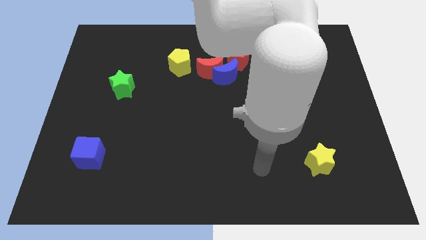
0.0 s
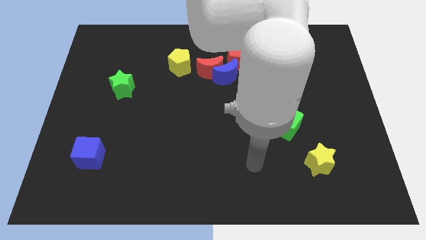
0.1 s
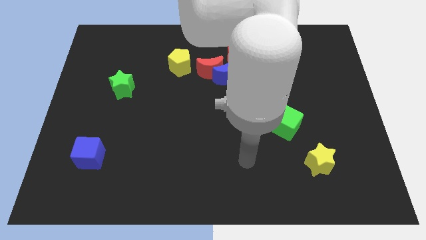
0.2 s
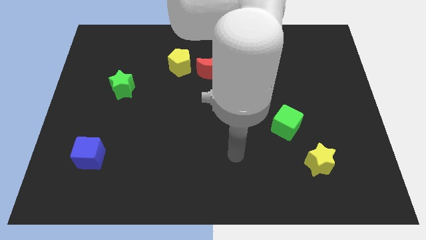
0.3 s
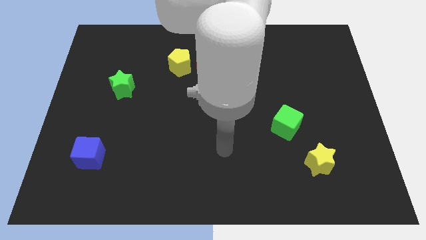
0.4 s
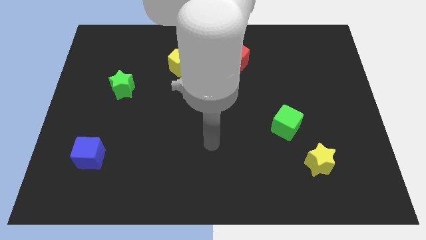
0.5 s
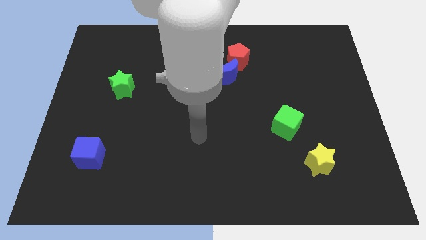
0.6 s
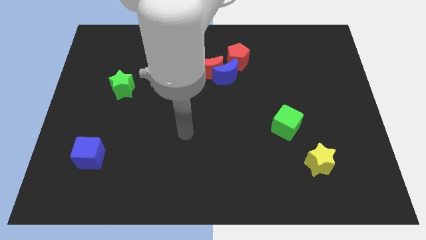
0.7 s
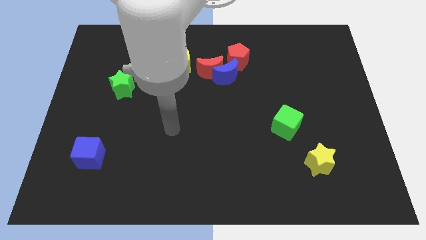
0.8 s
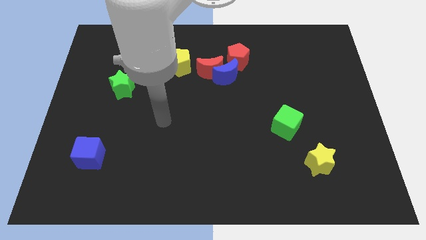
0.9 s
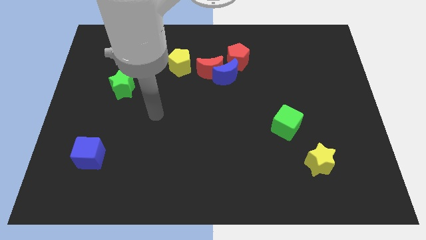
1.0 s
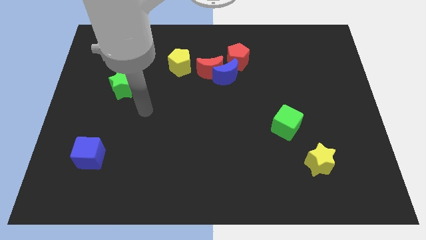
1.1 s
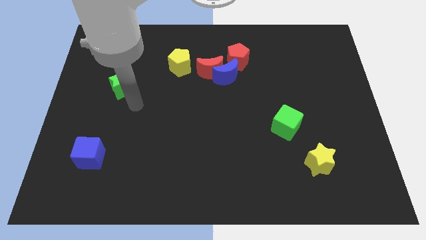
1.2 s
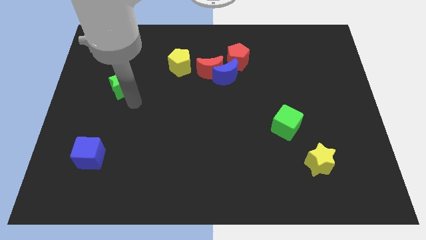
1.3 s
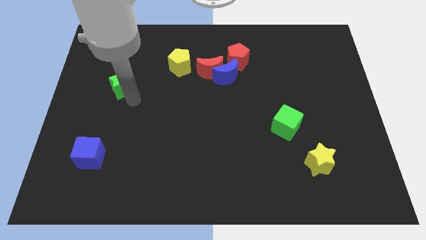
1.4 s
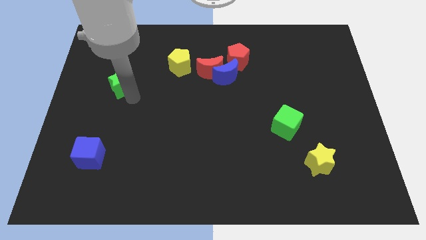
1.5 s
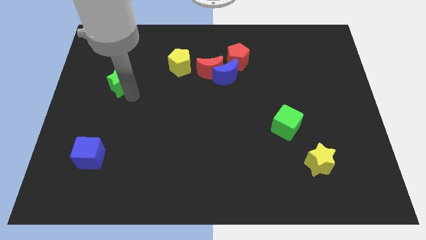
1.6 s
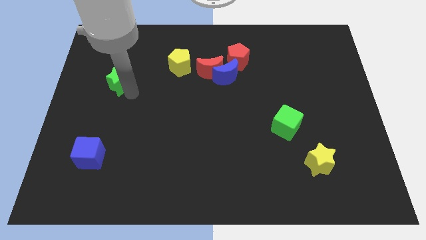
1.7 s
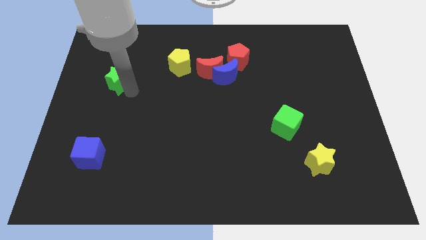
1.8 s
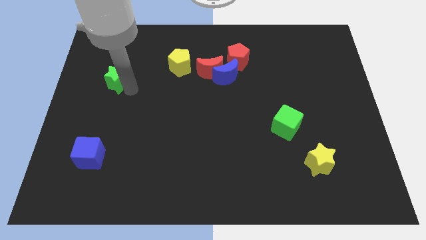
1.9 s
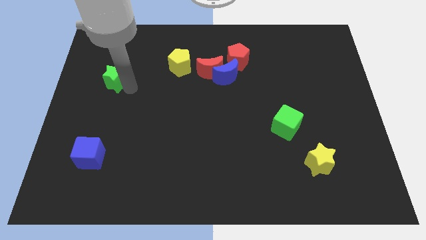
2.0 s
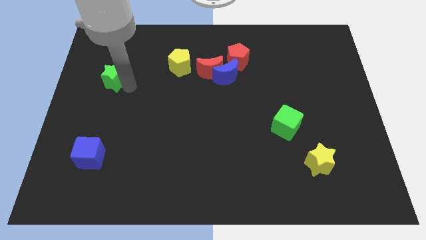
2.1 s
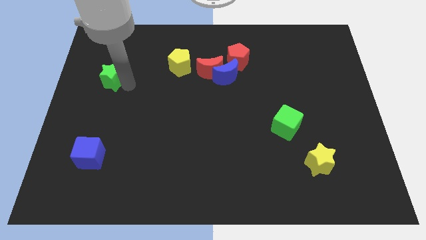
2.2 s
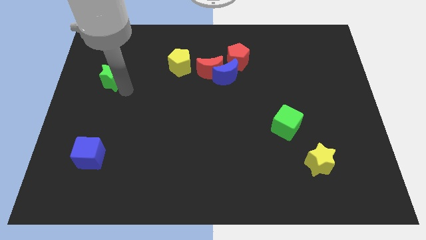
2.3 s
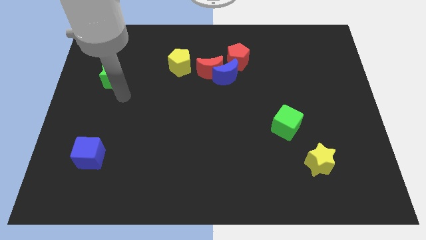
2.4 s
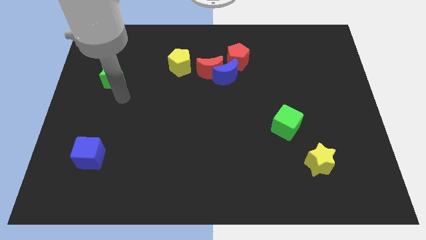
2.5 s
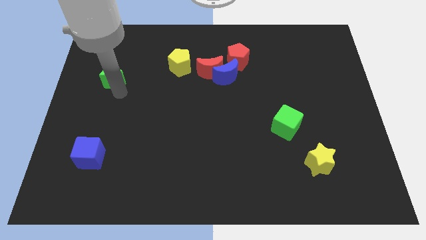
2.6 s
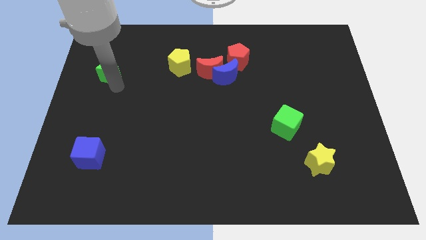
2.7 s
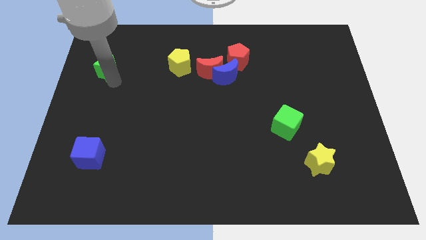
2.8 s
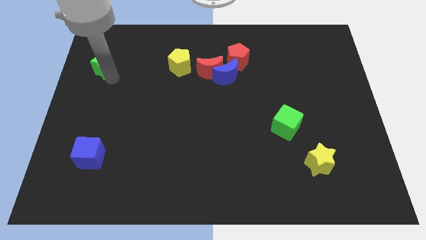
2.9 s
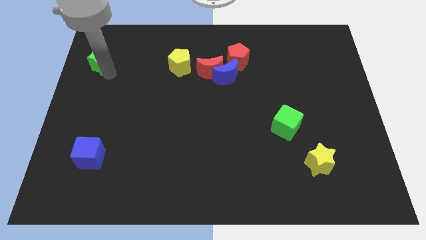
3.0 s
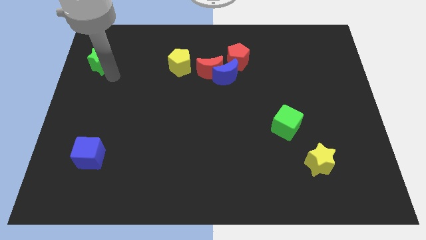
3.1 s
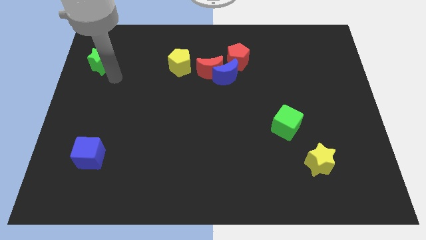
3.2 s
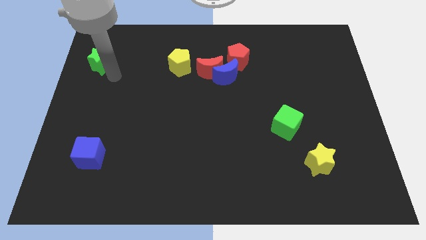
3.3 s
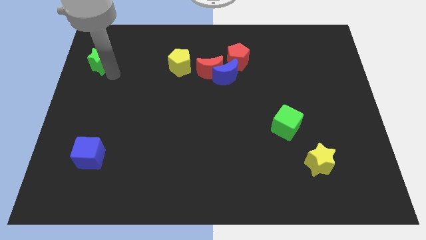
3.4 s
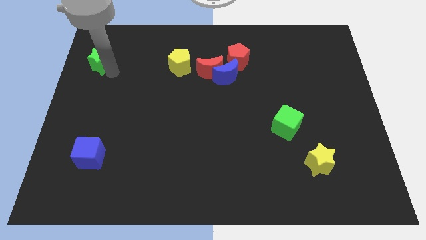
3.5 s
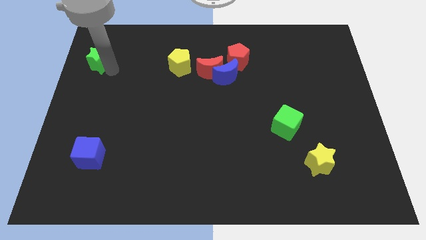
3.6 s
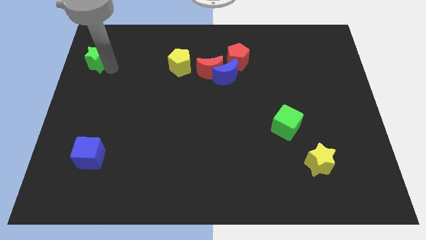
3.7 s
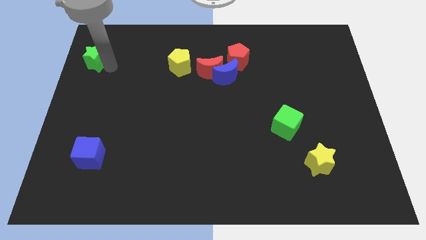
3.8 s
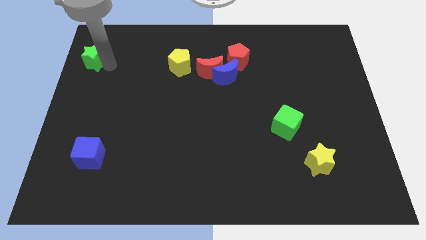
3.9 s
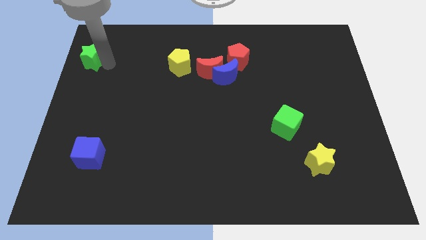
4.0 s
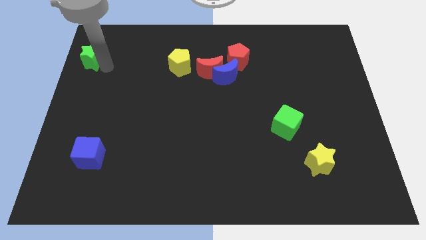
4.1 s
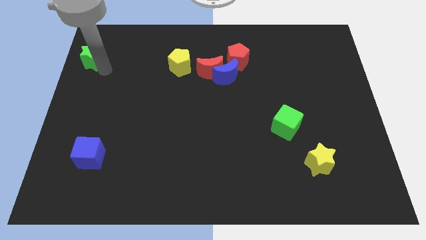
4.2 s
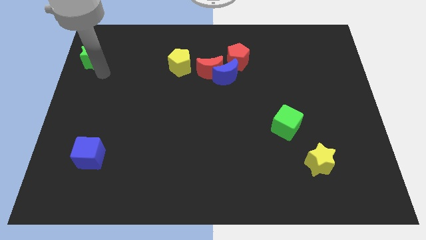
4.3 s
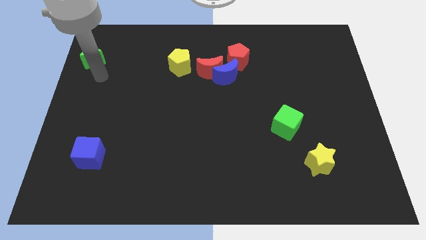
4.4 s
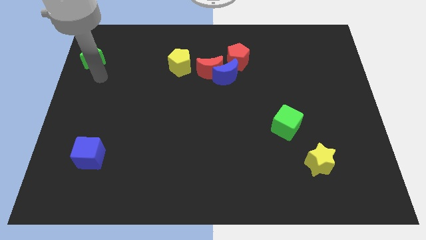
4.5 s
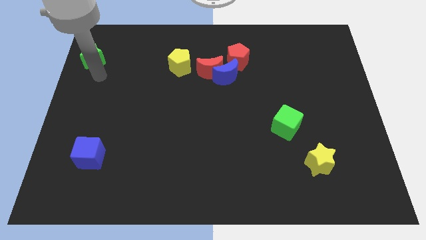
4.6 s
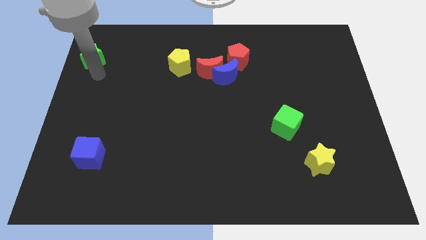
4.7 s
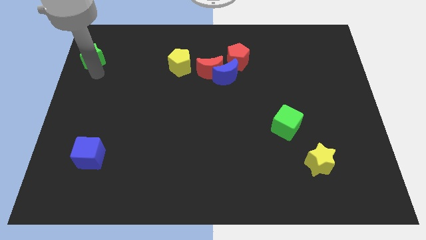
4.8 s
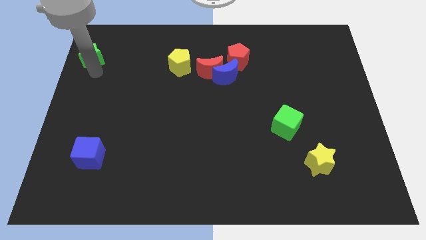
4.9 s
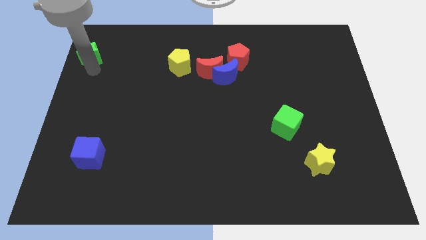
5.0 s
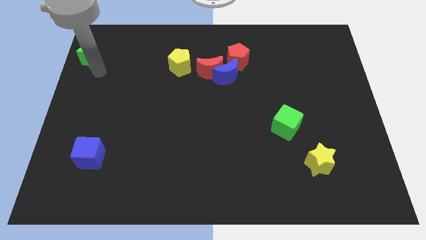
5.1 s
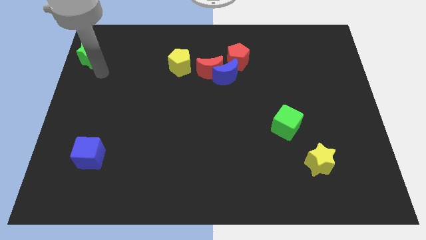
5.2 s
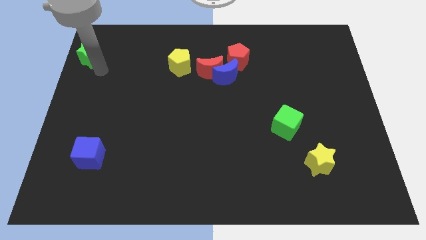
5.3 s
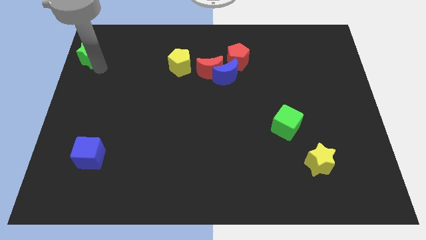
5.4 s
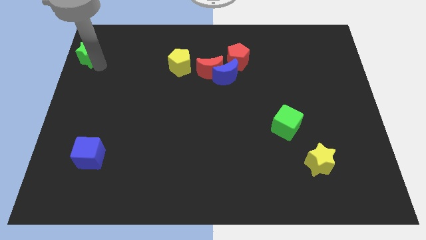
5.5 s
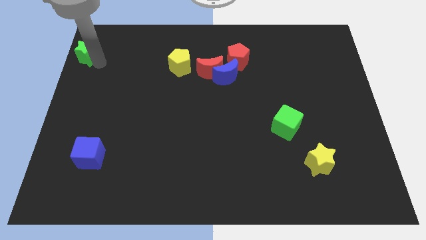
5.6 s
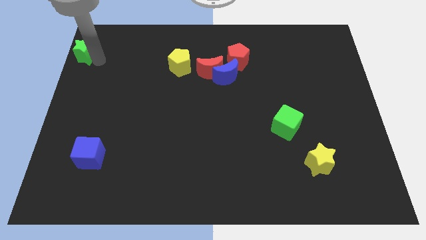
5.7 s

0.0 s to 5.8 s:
slide the green star to the top left of the board

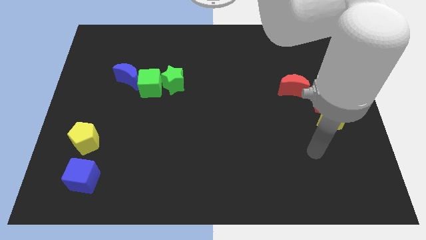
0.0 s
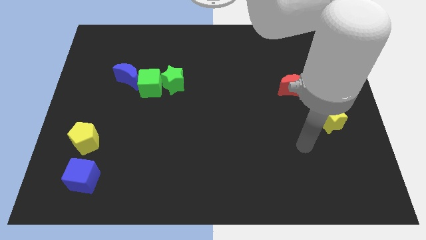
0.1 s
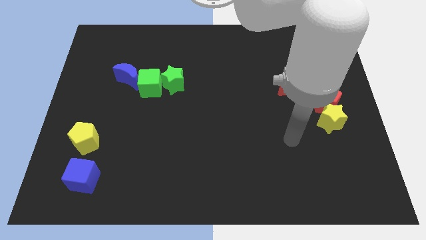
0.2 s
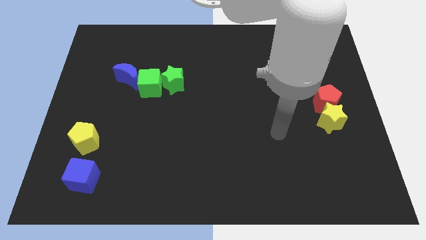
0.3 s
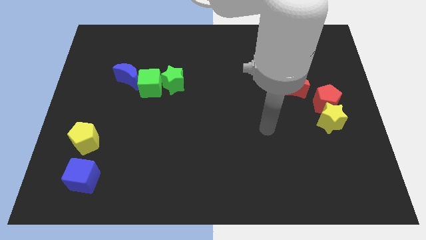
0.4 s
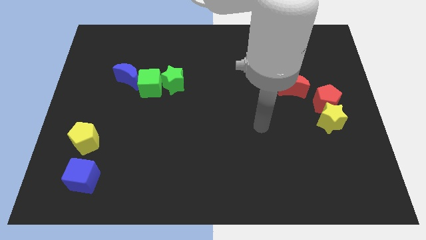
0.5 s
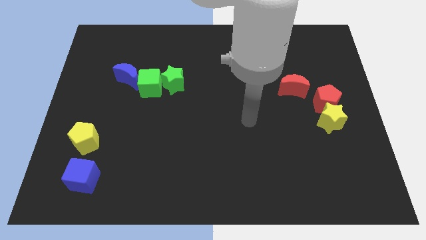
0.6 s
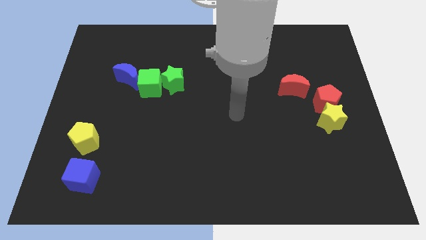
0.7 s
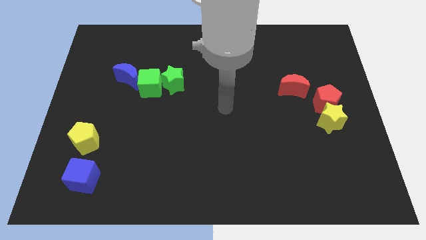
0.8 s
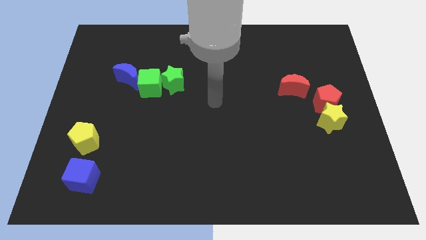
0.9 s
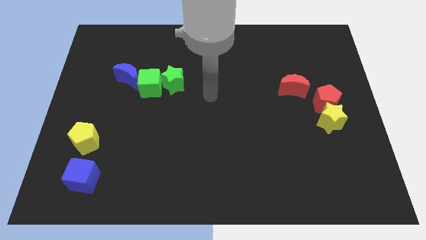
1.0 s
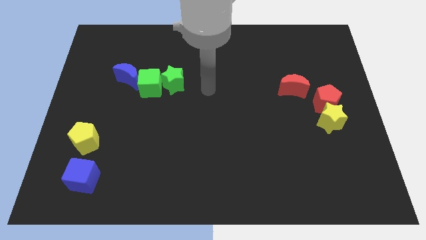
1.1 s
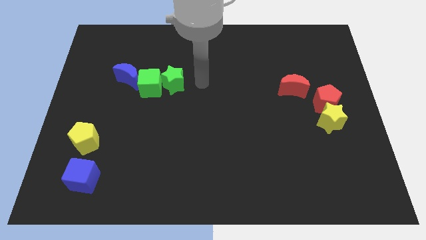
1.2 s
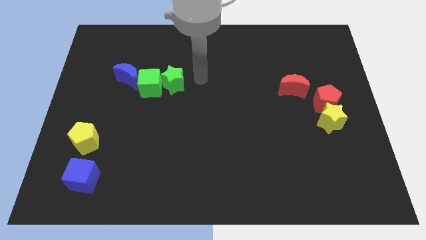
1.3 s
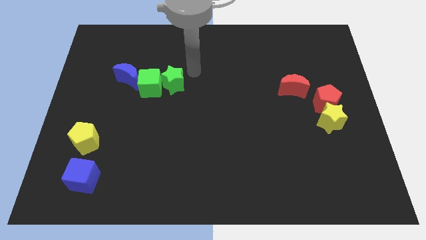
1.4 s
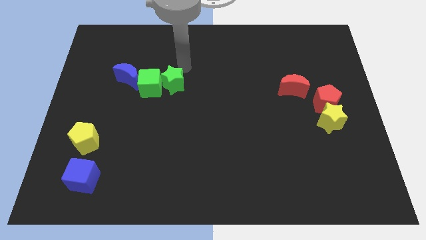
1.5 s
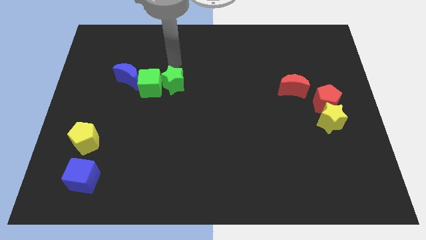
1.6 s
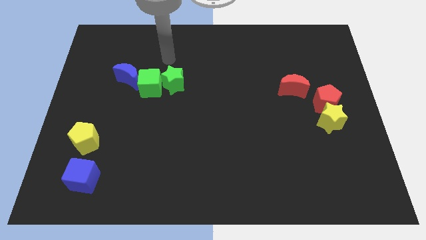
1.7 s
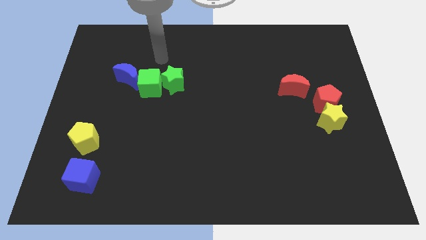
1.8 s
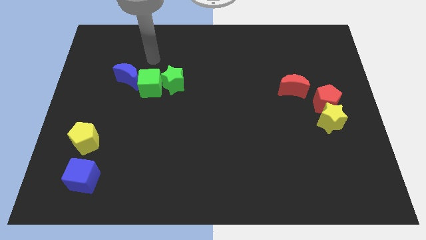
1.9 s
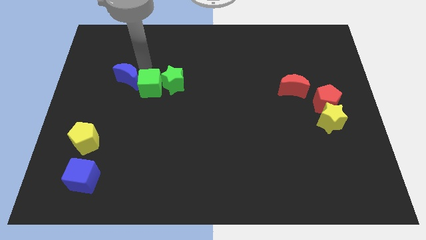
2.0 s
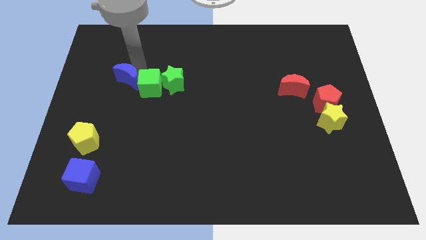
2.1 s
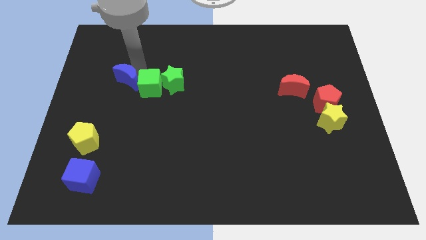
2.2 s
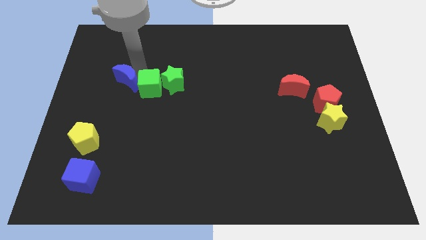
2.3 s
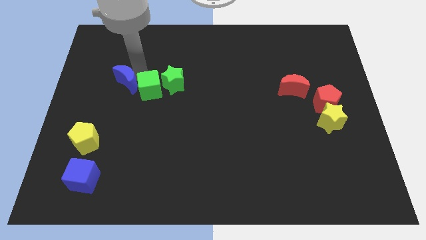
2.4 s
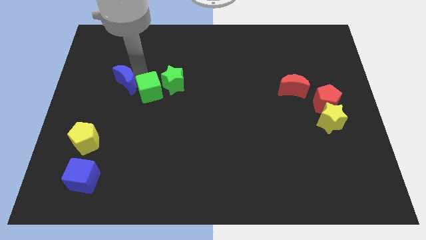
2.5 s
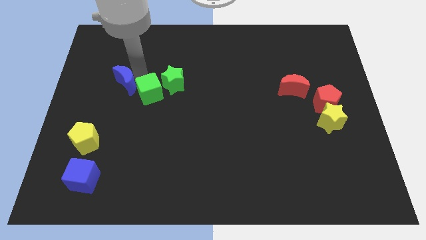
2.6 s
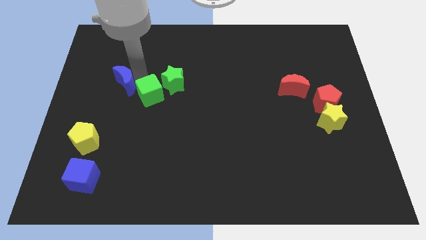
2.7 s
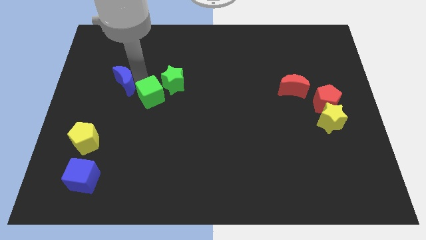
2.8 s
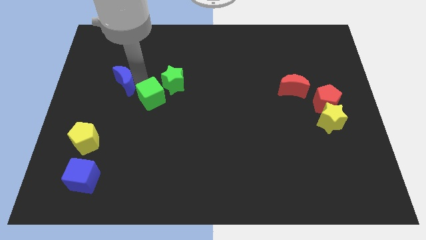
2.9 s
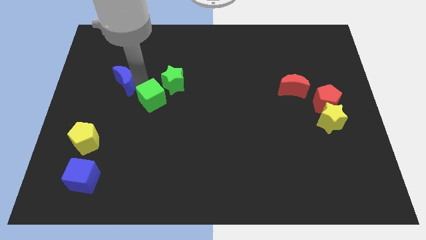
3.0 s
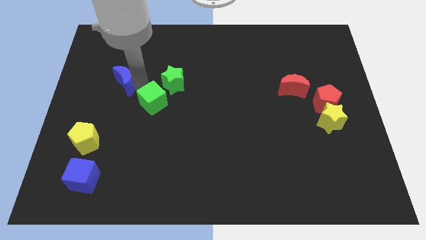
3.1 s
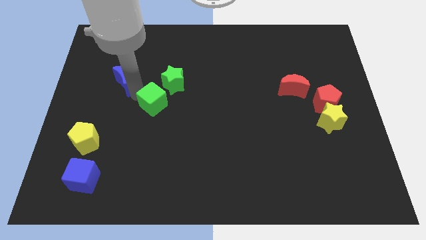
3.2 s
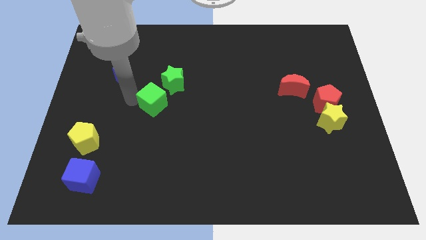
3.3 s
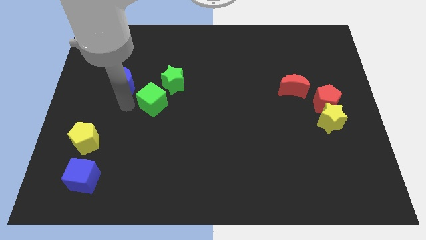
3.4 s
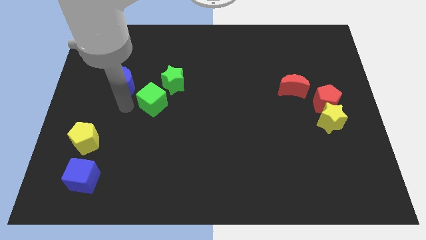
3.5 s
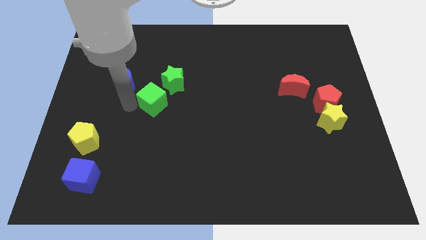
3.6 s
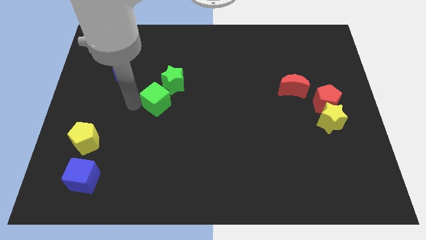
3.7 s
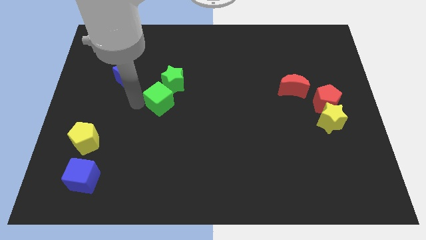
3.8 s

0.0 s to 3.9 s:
put the green cube to the center of the board
